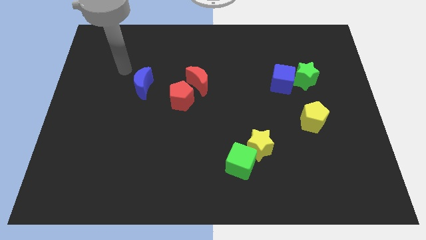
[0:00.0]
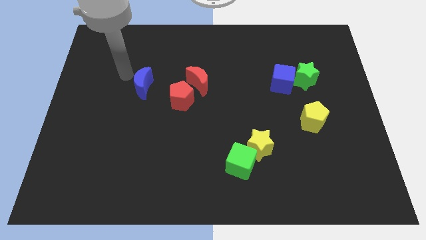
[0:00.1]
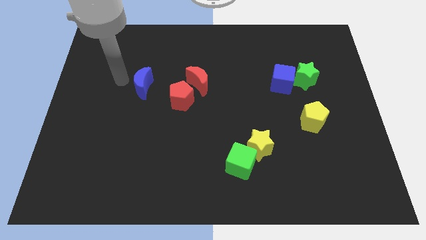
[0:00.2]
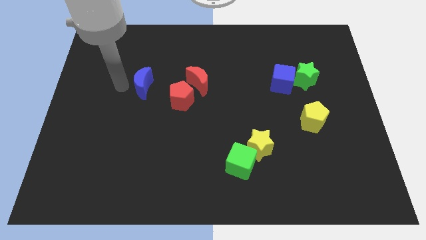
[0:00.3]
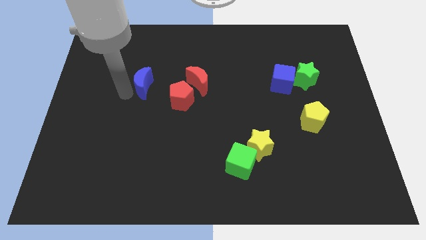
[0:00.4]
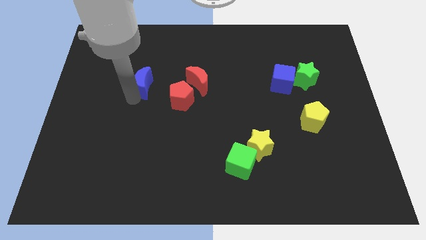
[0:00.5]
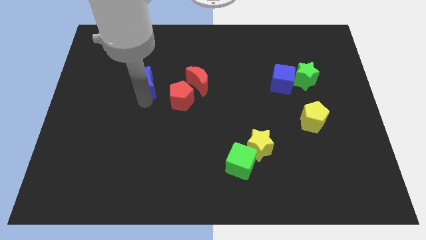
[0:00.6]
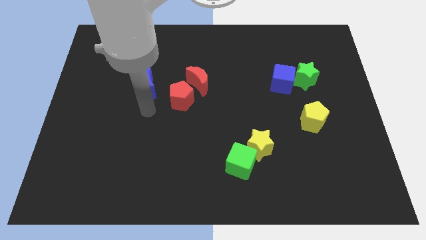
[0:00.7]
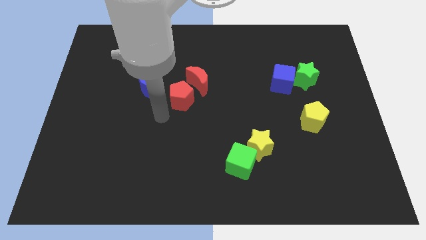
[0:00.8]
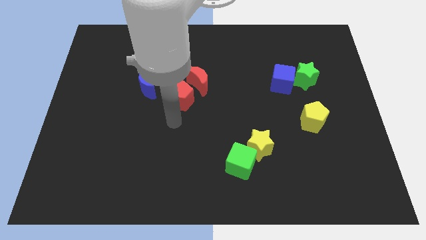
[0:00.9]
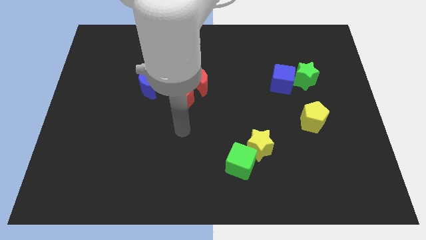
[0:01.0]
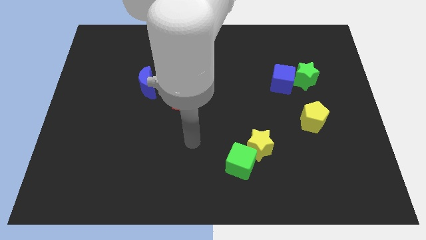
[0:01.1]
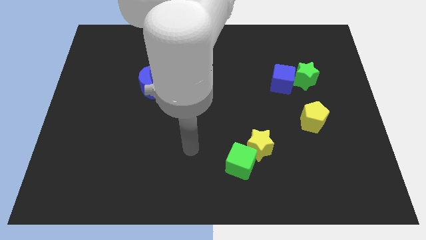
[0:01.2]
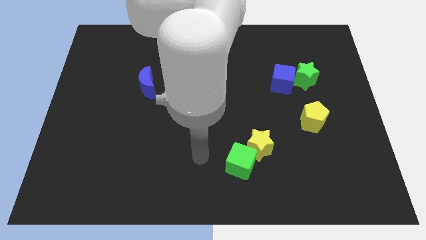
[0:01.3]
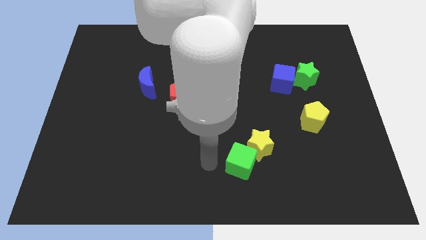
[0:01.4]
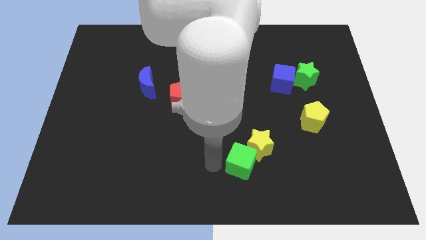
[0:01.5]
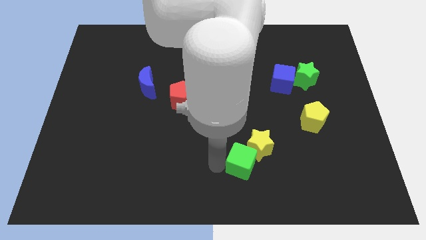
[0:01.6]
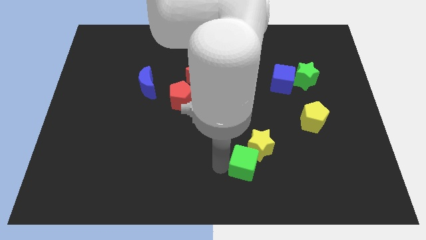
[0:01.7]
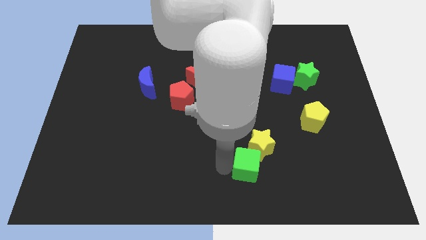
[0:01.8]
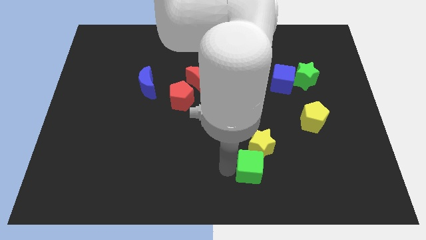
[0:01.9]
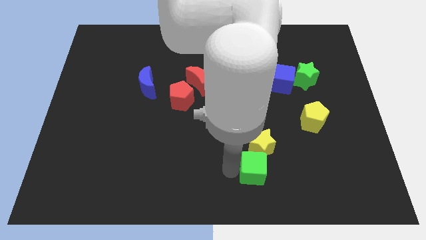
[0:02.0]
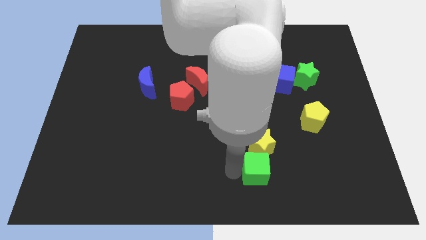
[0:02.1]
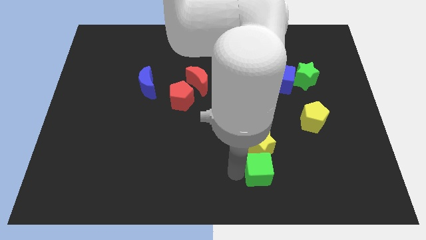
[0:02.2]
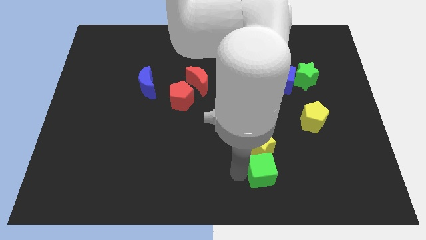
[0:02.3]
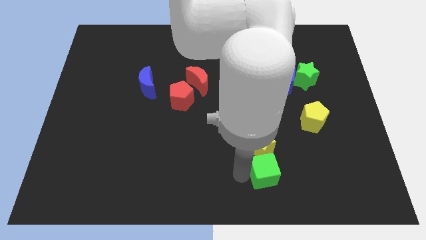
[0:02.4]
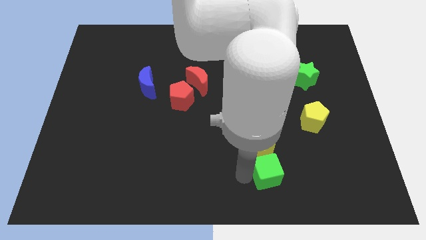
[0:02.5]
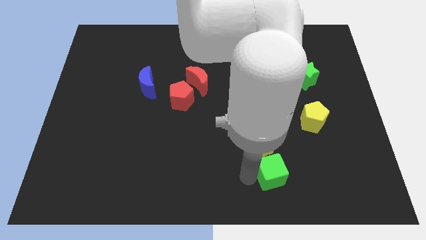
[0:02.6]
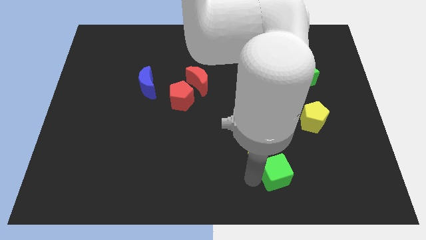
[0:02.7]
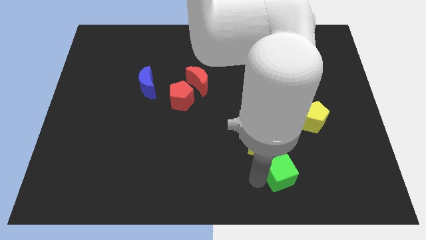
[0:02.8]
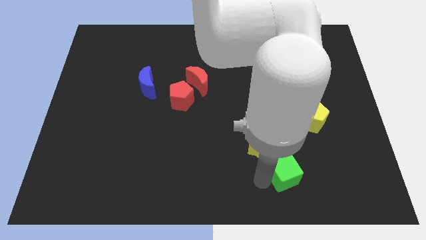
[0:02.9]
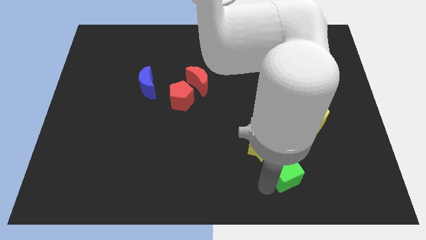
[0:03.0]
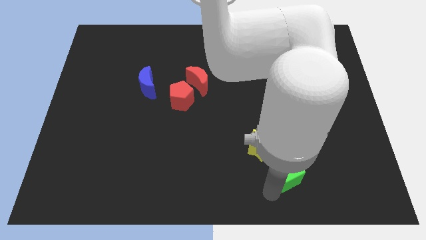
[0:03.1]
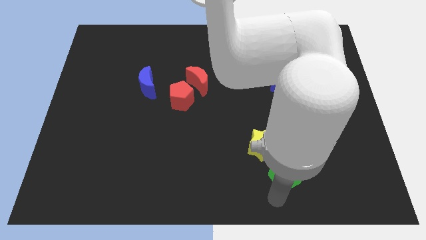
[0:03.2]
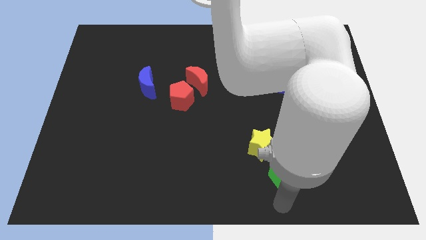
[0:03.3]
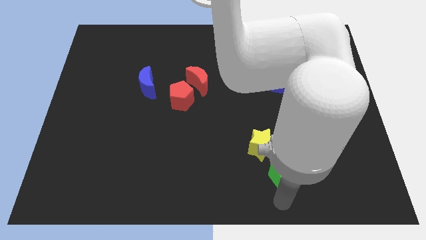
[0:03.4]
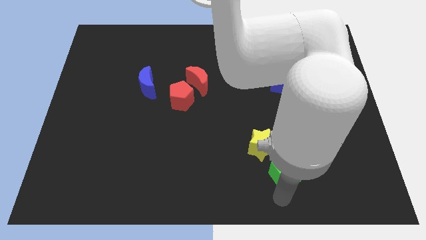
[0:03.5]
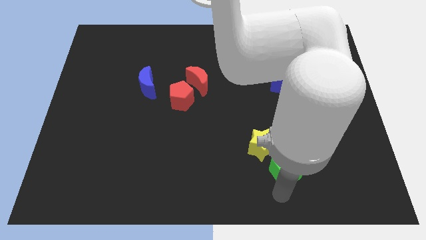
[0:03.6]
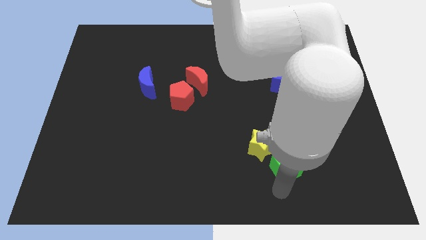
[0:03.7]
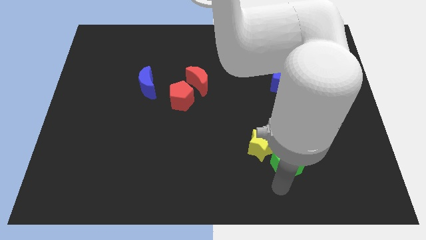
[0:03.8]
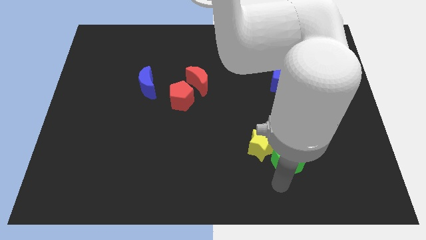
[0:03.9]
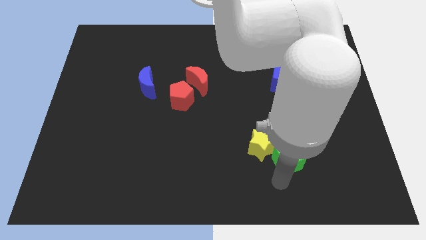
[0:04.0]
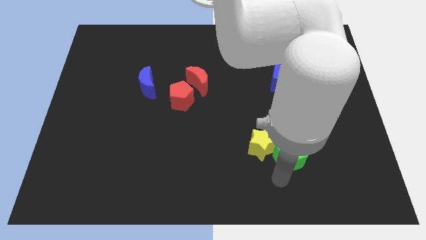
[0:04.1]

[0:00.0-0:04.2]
move the green cube a little bit diagonally up and right

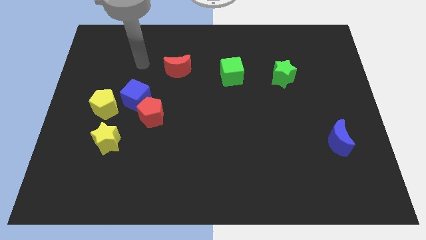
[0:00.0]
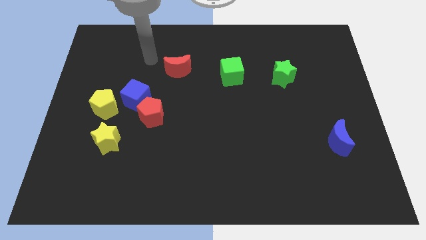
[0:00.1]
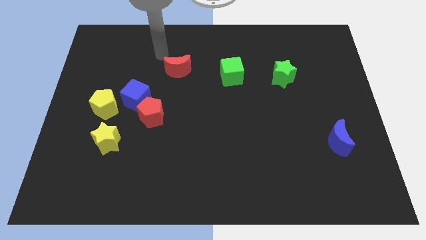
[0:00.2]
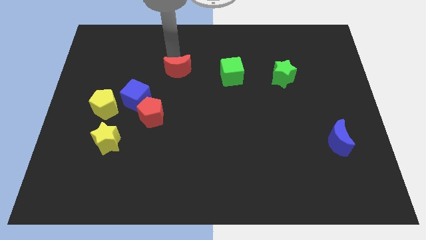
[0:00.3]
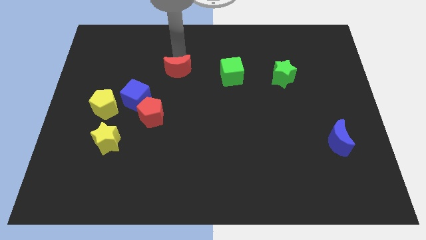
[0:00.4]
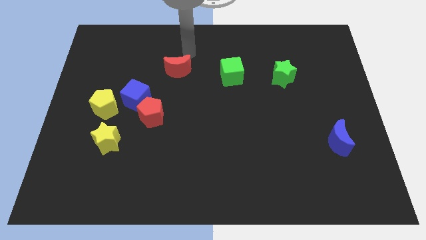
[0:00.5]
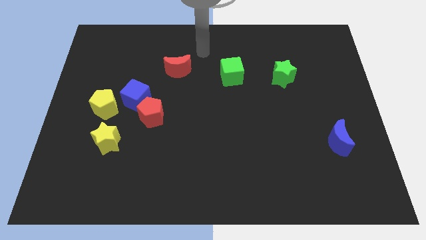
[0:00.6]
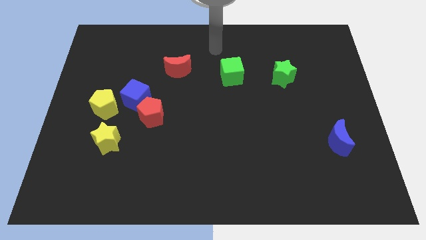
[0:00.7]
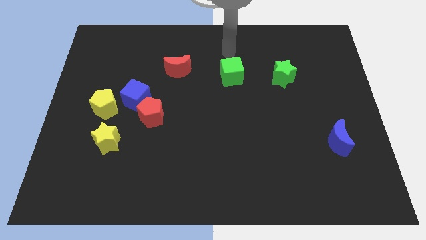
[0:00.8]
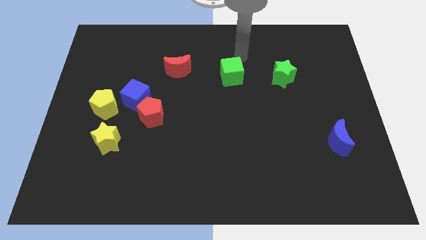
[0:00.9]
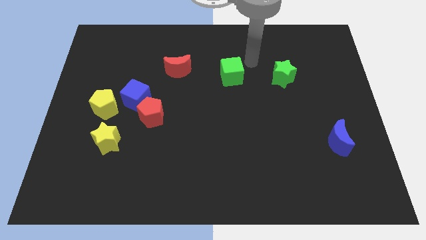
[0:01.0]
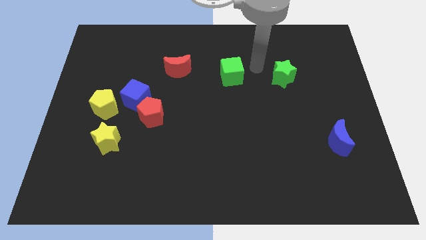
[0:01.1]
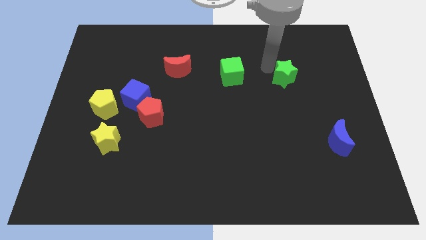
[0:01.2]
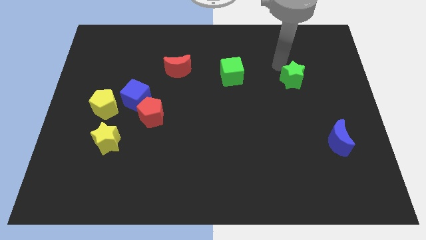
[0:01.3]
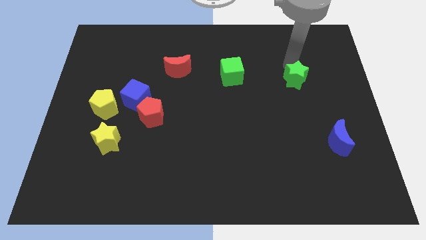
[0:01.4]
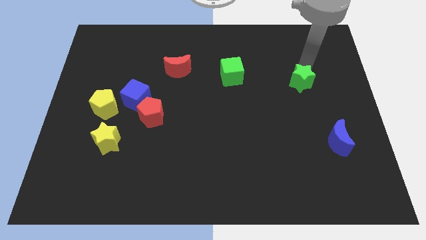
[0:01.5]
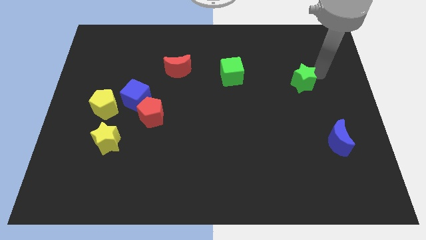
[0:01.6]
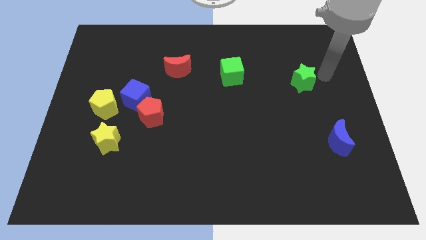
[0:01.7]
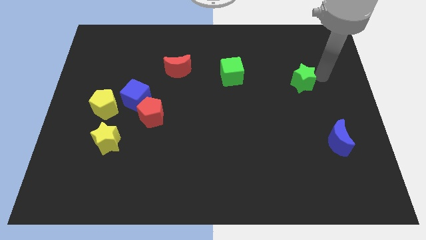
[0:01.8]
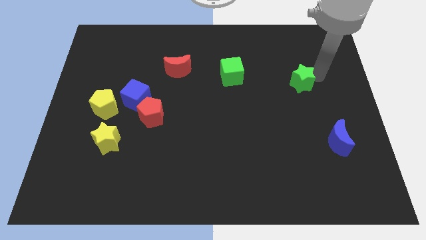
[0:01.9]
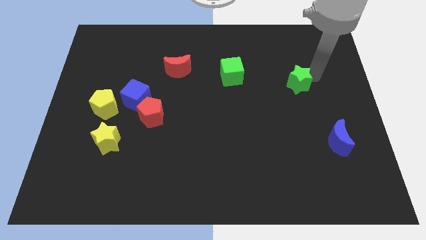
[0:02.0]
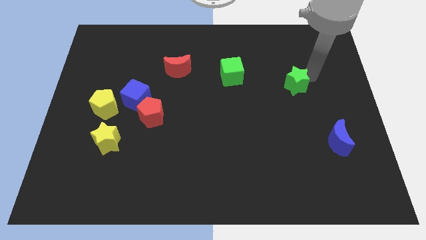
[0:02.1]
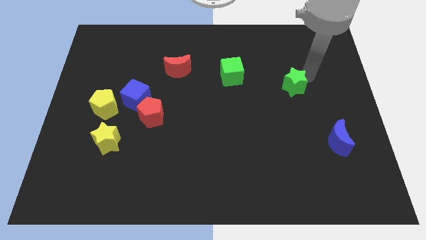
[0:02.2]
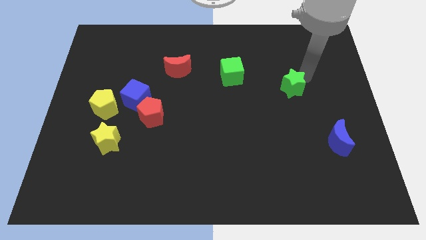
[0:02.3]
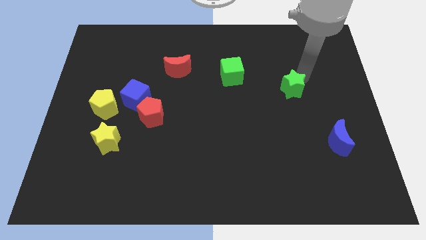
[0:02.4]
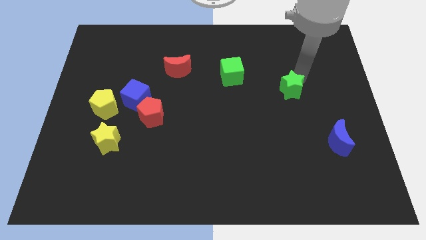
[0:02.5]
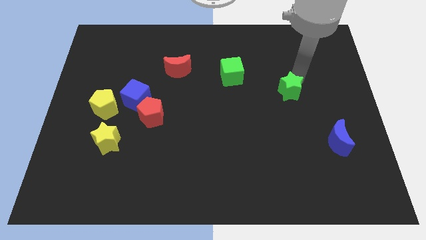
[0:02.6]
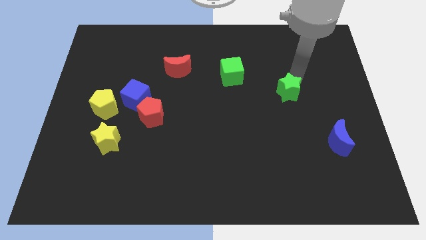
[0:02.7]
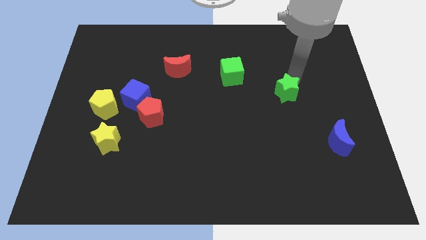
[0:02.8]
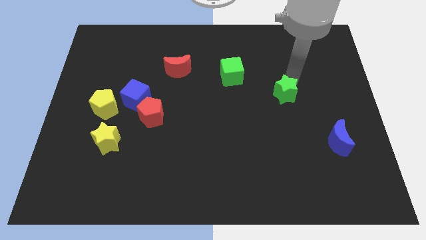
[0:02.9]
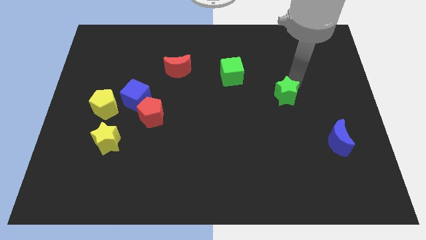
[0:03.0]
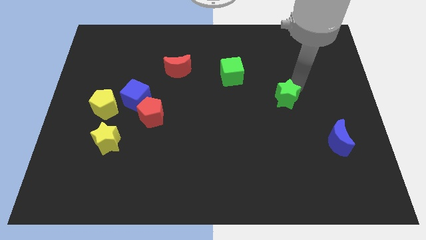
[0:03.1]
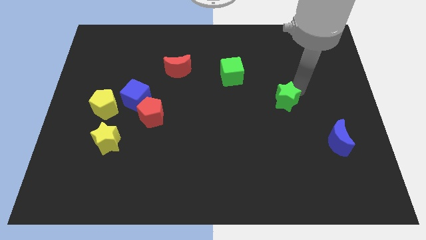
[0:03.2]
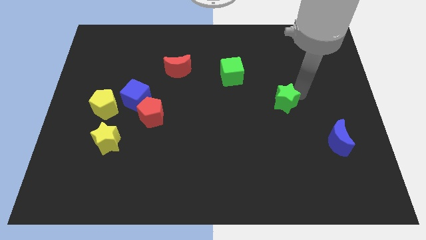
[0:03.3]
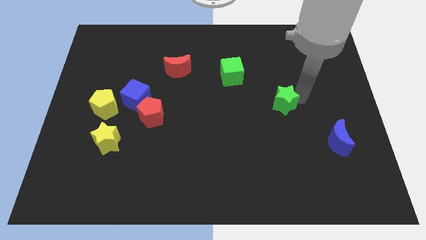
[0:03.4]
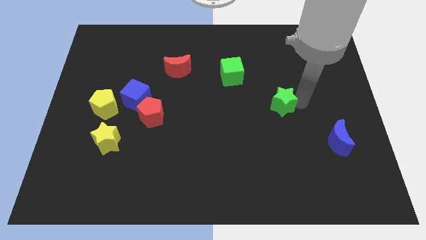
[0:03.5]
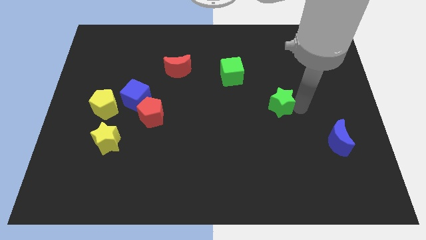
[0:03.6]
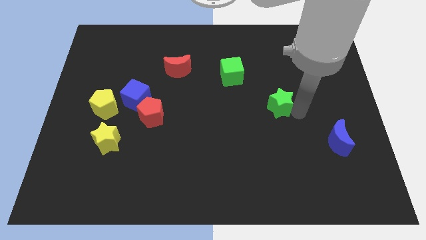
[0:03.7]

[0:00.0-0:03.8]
push the green star a little bit down and then to the left
